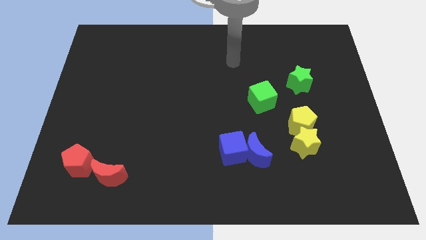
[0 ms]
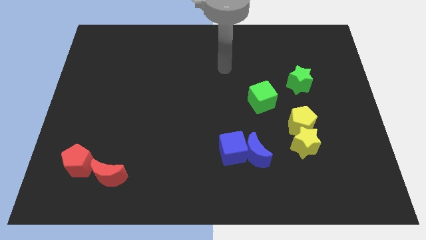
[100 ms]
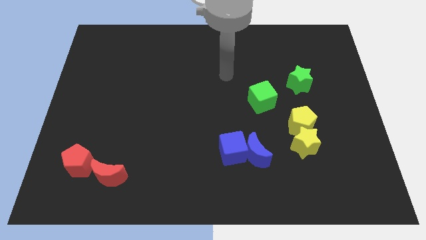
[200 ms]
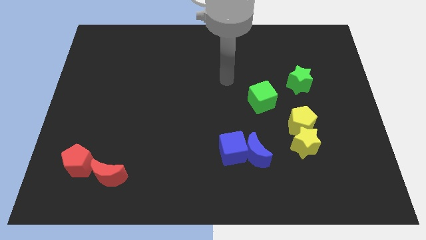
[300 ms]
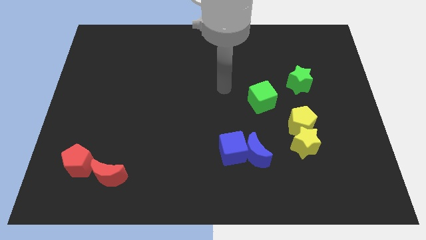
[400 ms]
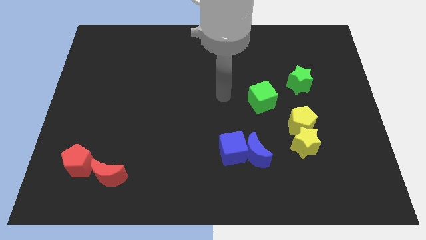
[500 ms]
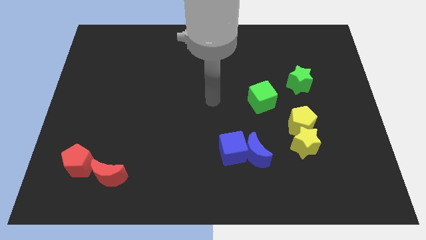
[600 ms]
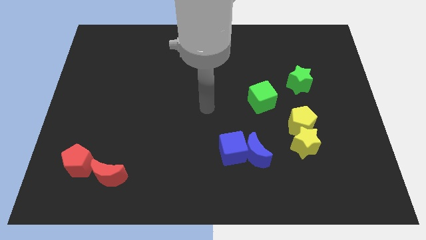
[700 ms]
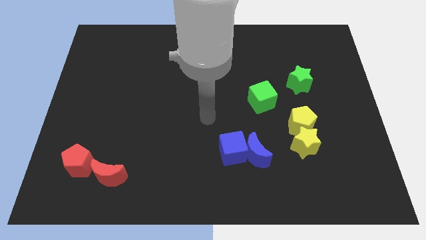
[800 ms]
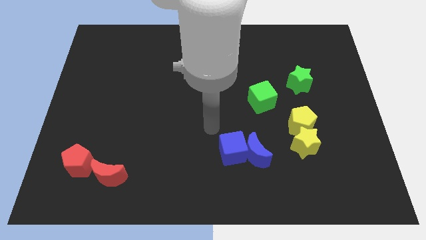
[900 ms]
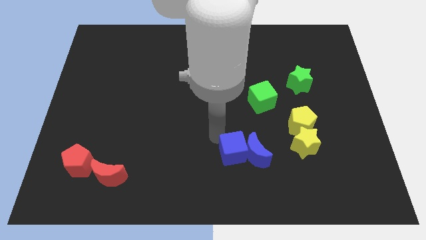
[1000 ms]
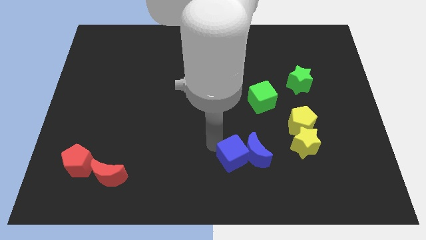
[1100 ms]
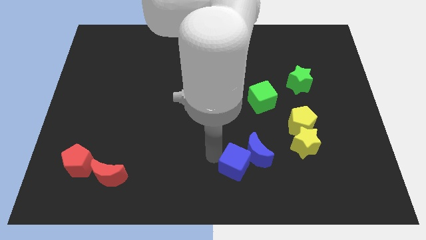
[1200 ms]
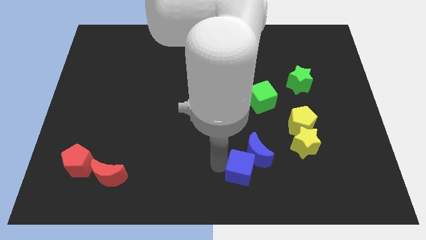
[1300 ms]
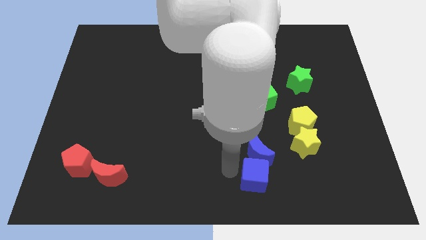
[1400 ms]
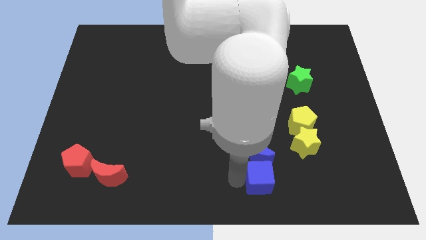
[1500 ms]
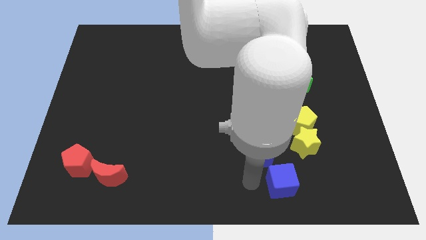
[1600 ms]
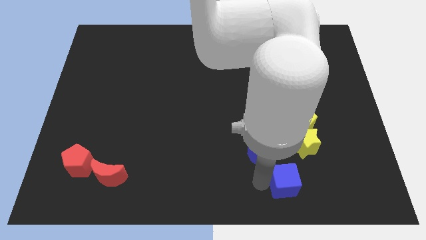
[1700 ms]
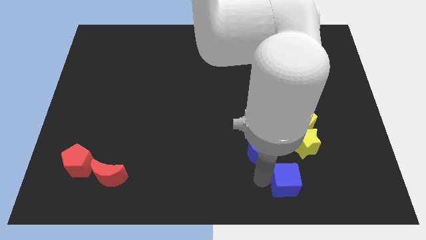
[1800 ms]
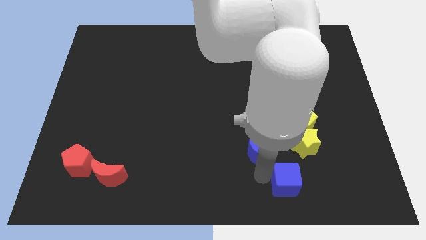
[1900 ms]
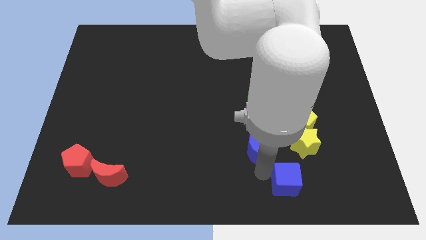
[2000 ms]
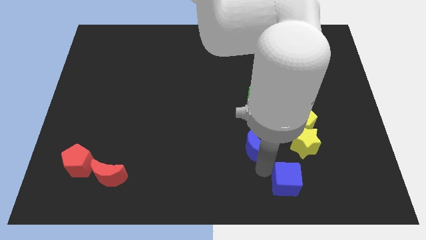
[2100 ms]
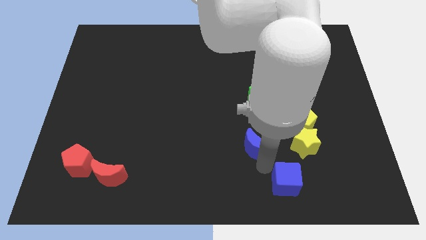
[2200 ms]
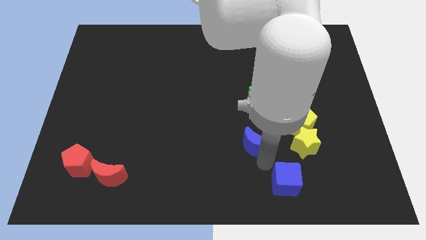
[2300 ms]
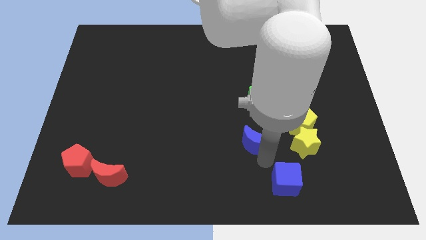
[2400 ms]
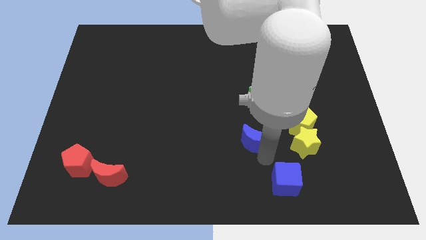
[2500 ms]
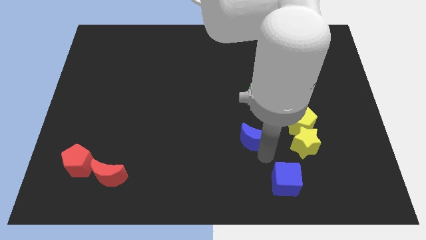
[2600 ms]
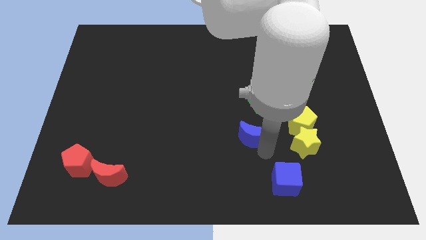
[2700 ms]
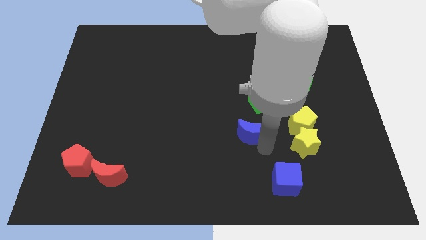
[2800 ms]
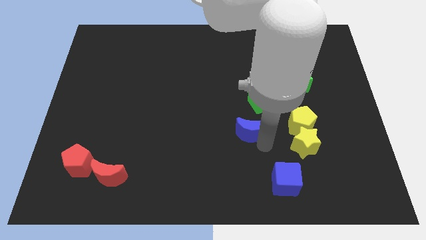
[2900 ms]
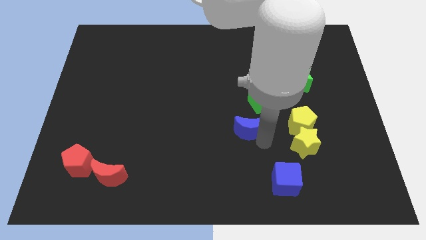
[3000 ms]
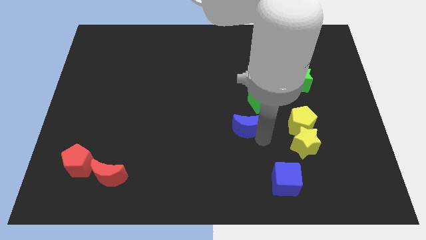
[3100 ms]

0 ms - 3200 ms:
move the blue moon somewhat up

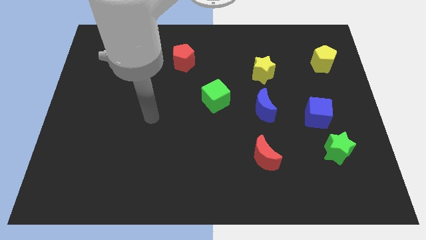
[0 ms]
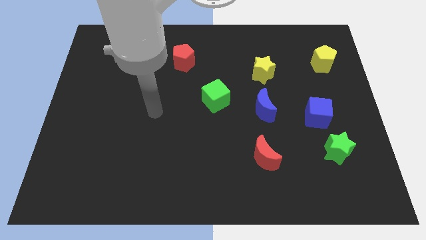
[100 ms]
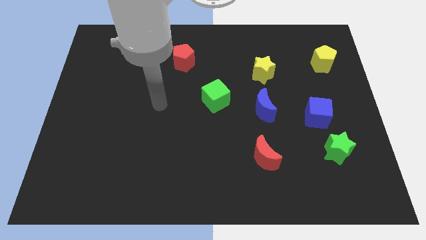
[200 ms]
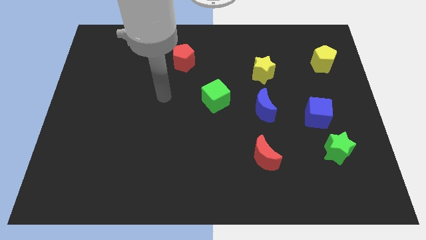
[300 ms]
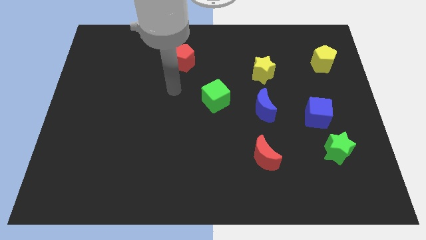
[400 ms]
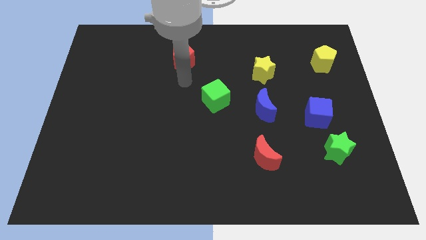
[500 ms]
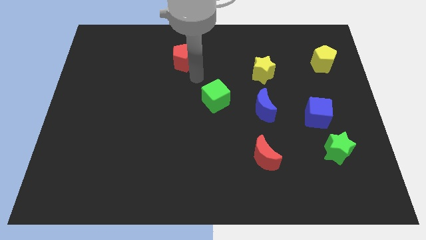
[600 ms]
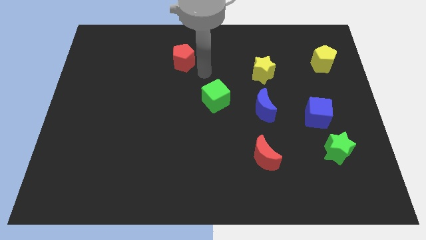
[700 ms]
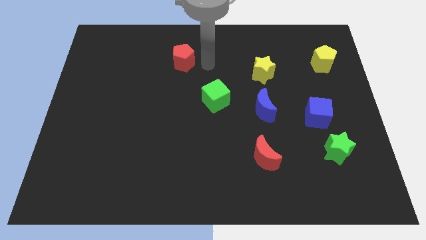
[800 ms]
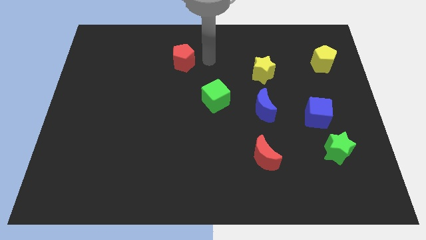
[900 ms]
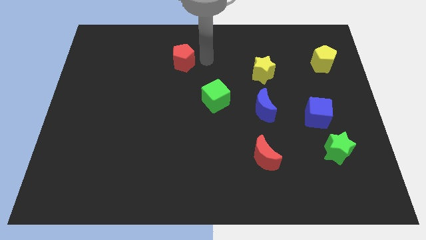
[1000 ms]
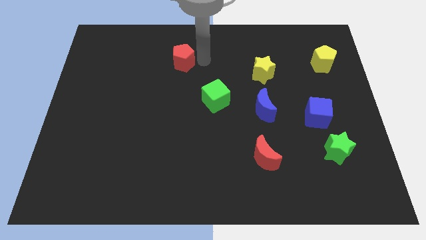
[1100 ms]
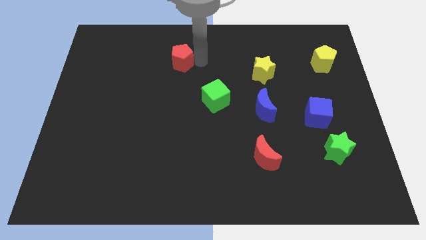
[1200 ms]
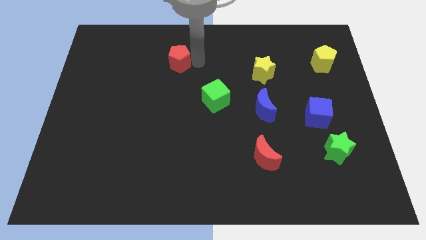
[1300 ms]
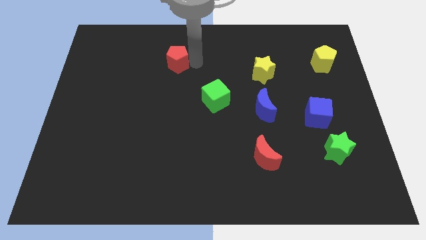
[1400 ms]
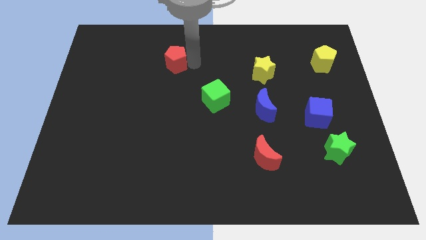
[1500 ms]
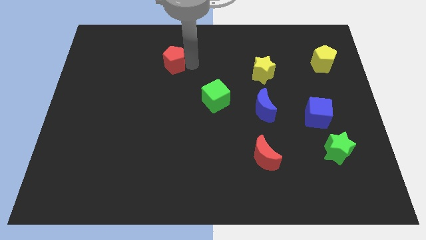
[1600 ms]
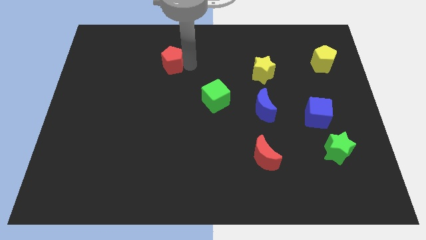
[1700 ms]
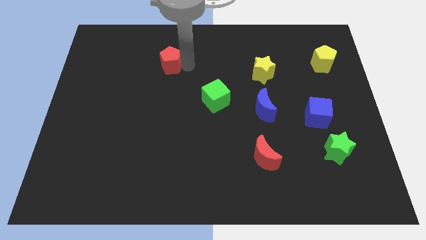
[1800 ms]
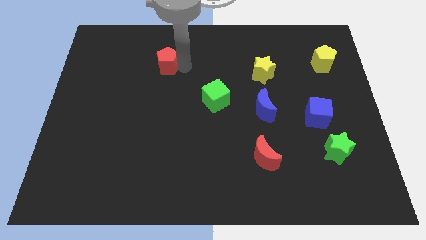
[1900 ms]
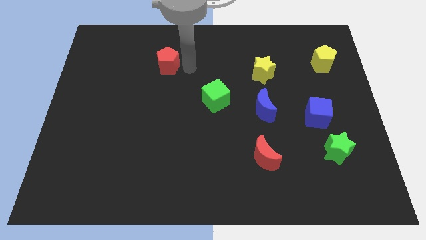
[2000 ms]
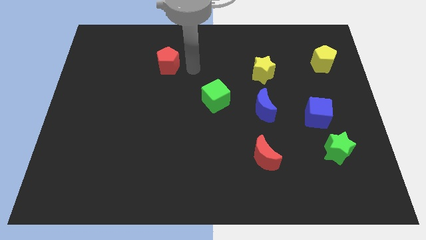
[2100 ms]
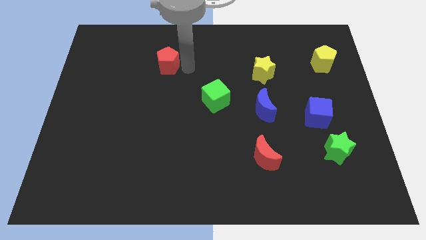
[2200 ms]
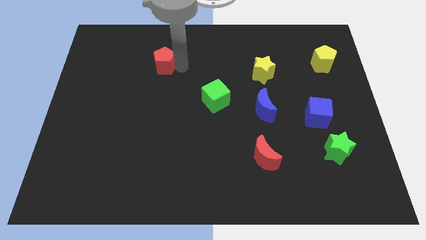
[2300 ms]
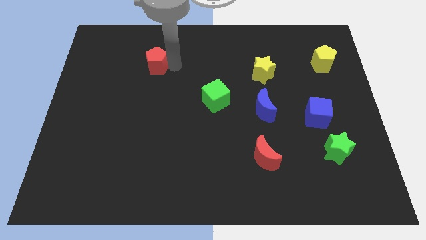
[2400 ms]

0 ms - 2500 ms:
push the red pentagon somewhat left

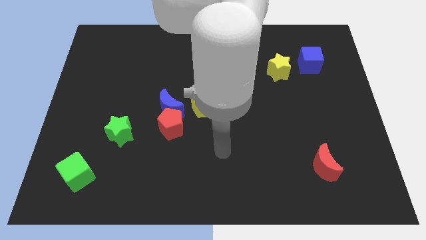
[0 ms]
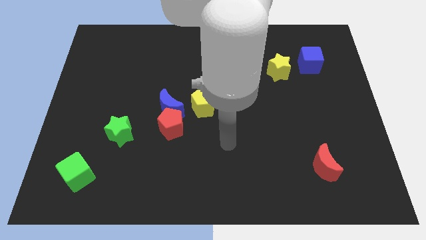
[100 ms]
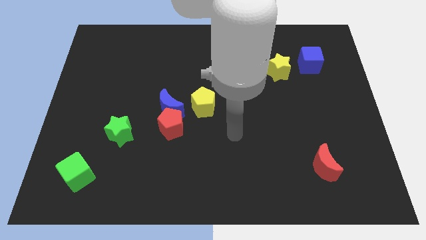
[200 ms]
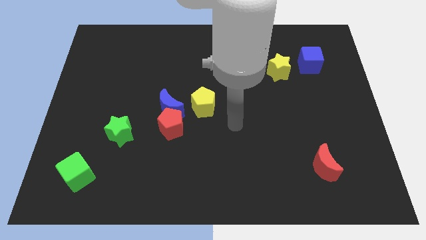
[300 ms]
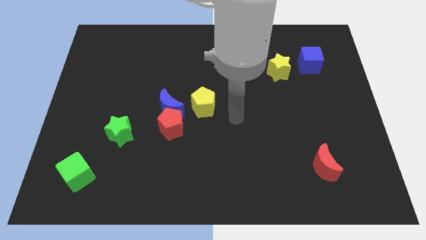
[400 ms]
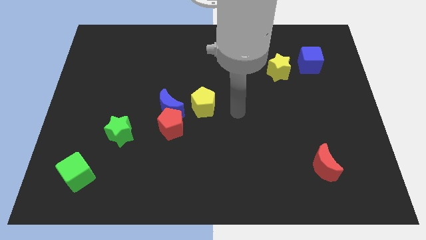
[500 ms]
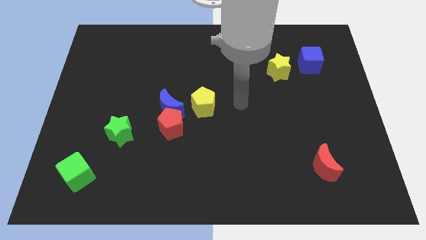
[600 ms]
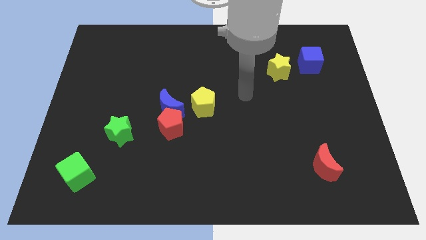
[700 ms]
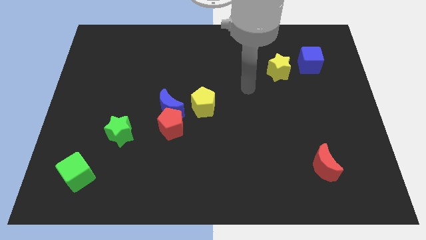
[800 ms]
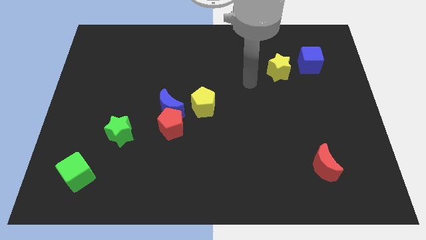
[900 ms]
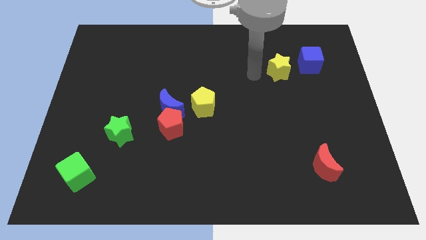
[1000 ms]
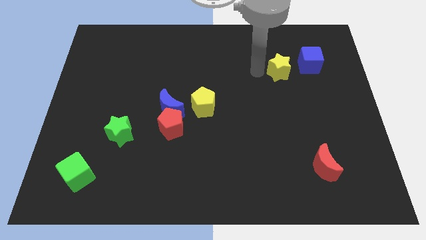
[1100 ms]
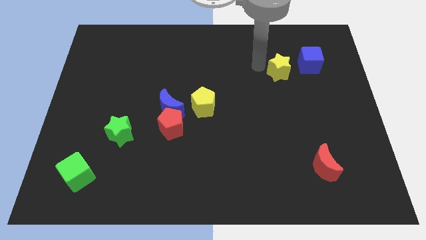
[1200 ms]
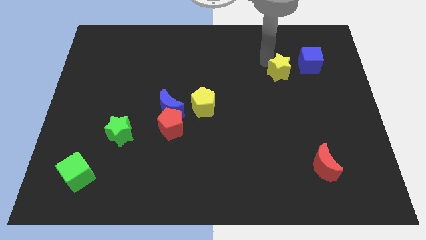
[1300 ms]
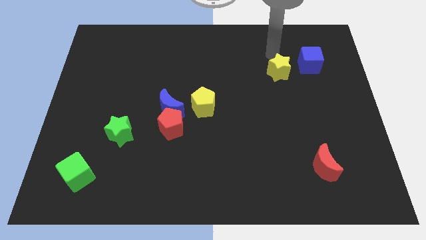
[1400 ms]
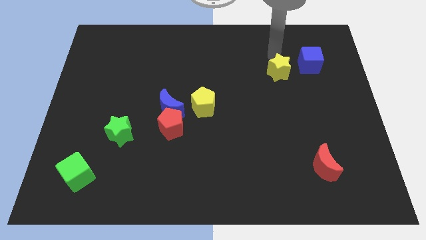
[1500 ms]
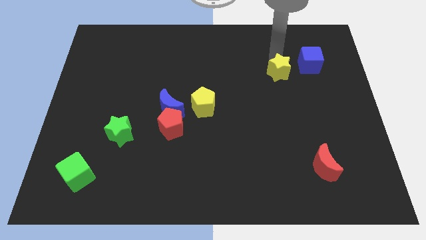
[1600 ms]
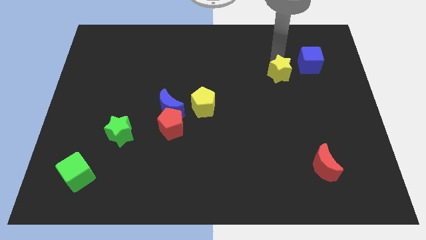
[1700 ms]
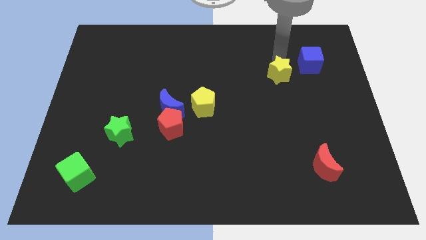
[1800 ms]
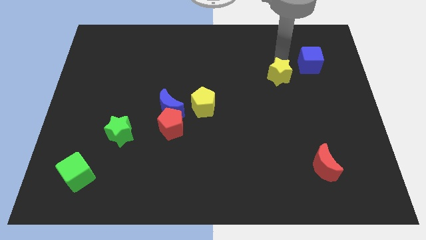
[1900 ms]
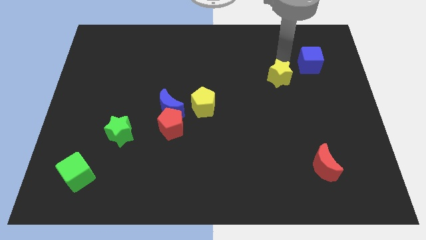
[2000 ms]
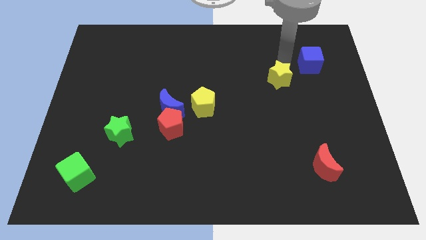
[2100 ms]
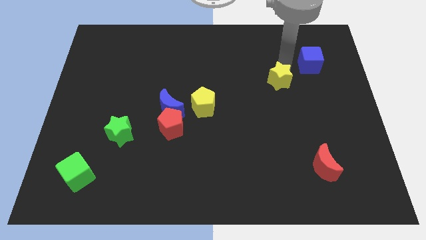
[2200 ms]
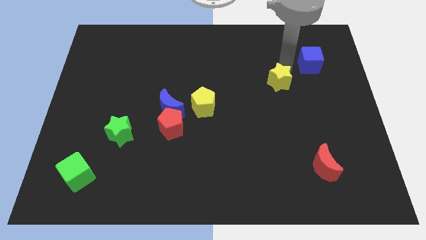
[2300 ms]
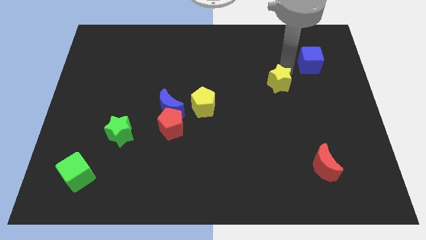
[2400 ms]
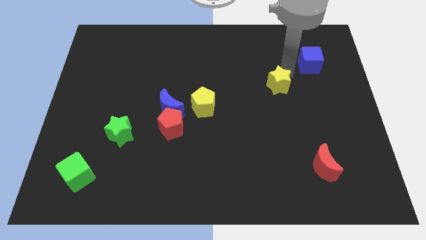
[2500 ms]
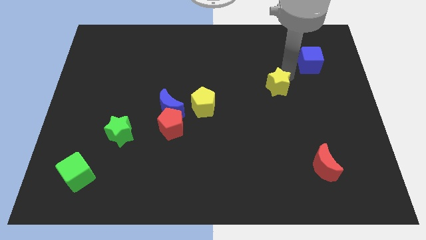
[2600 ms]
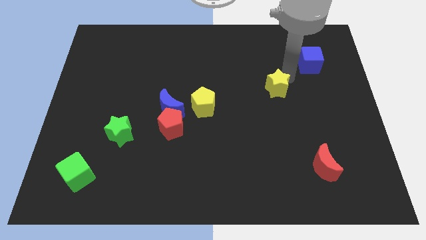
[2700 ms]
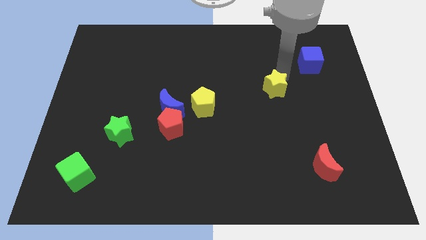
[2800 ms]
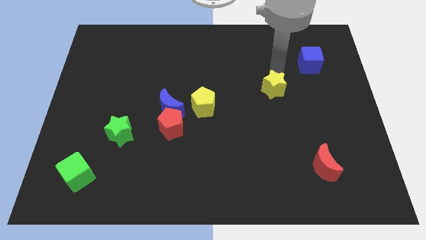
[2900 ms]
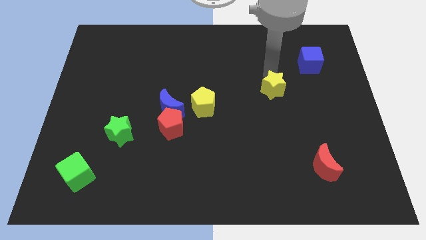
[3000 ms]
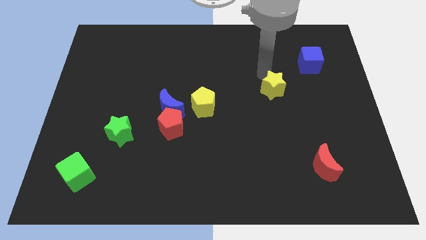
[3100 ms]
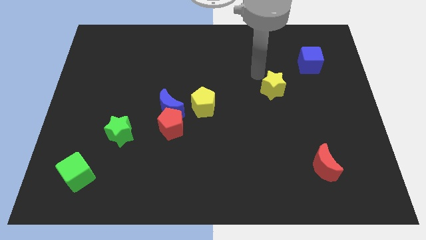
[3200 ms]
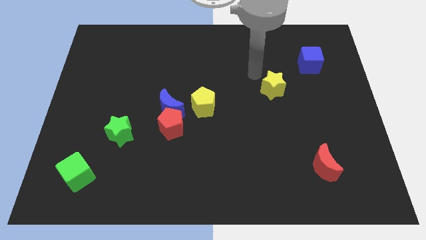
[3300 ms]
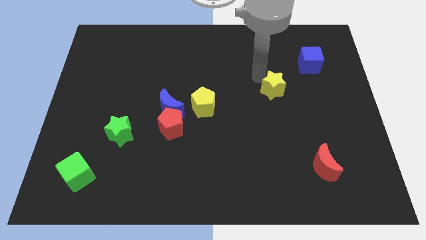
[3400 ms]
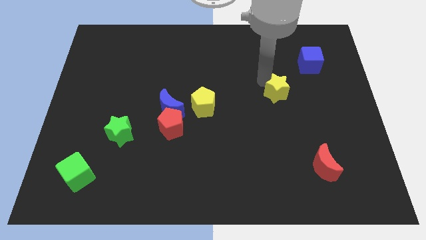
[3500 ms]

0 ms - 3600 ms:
move the yellow star a bit downwards
